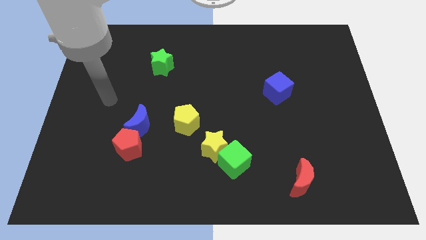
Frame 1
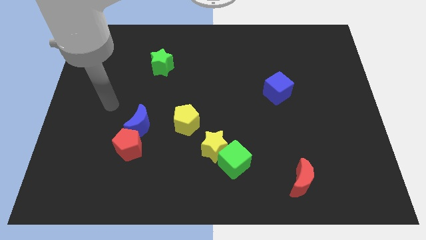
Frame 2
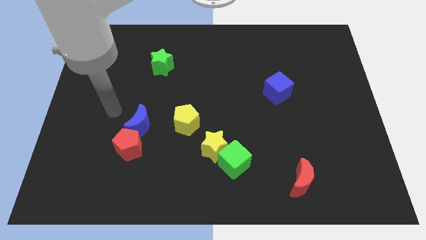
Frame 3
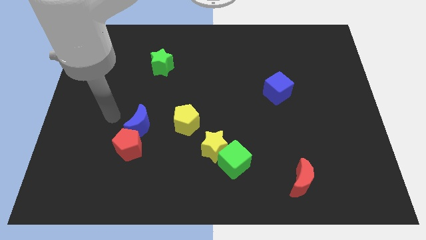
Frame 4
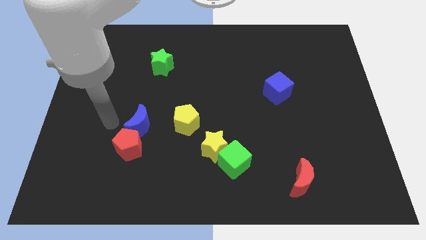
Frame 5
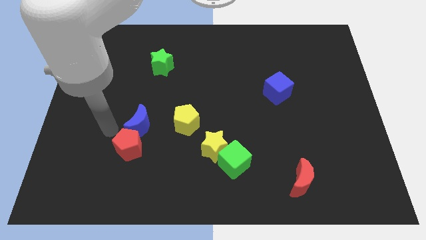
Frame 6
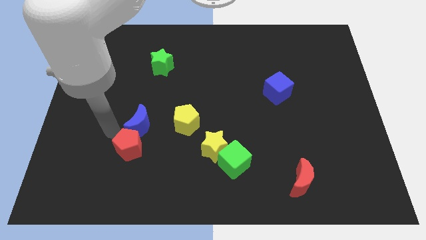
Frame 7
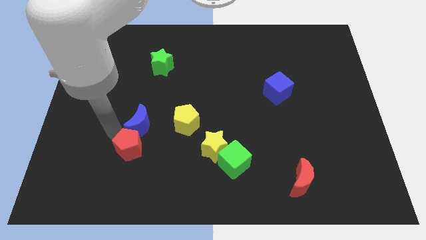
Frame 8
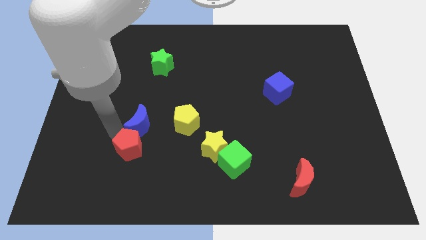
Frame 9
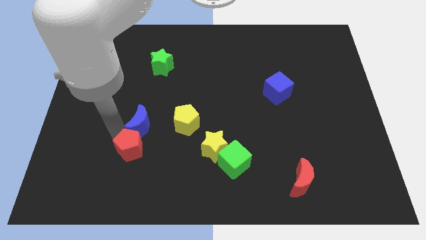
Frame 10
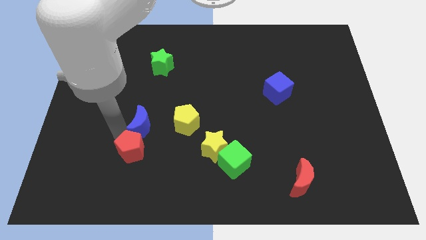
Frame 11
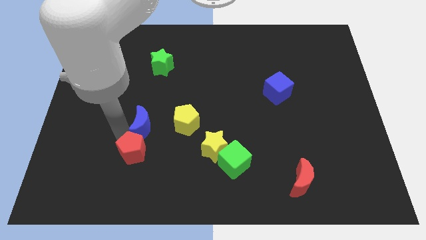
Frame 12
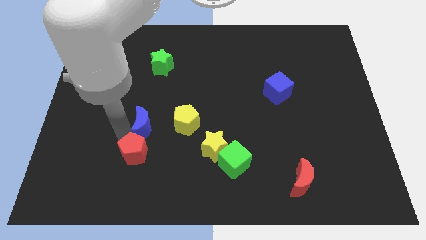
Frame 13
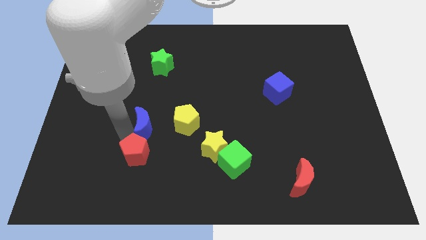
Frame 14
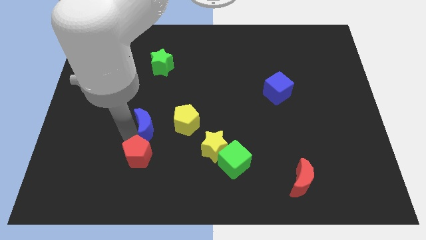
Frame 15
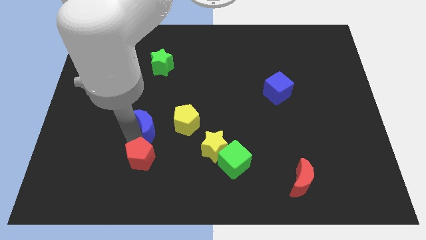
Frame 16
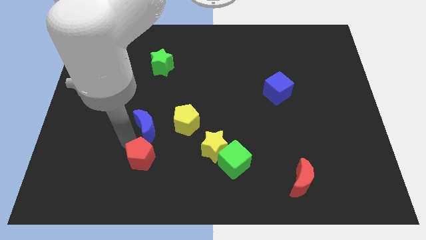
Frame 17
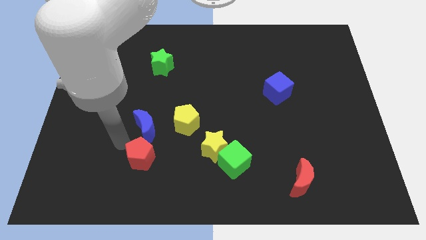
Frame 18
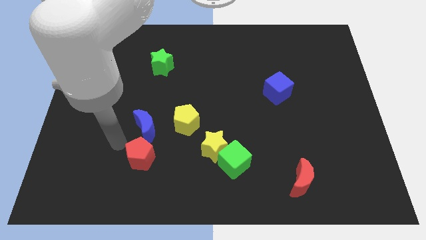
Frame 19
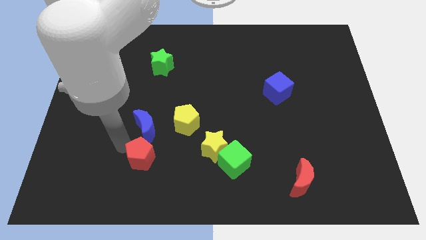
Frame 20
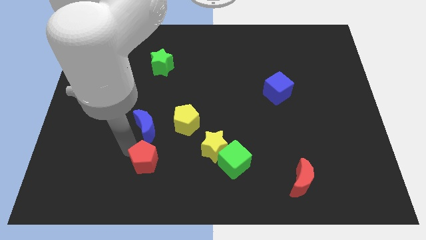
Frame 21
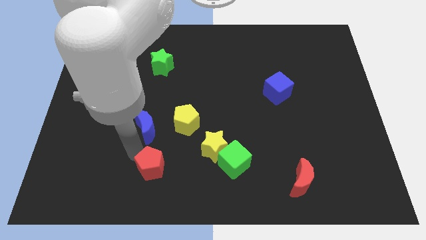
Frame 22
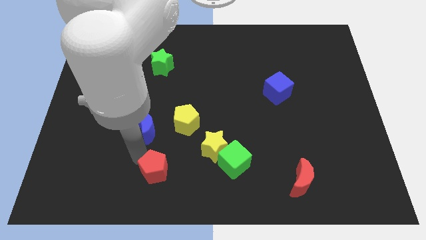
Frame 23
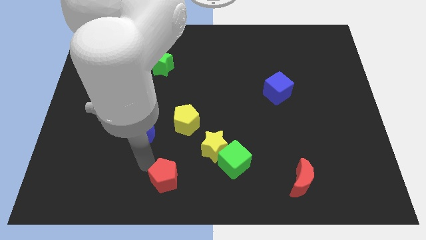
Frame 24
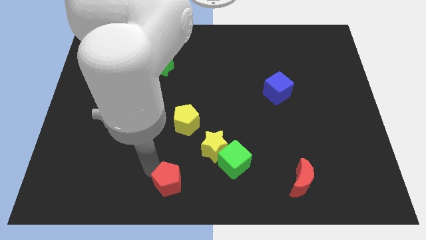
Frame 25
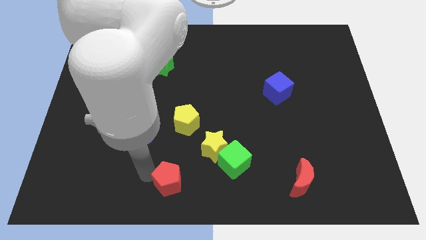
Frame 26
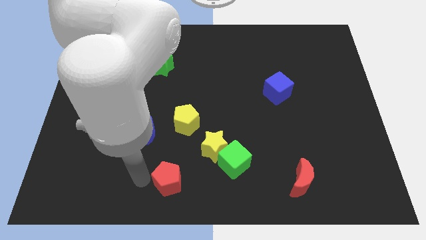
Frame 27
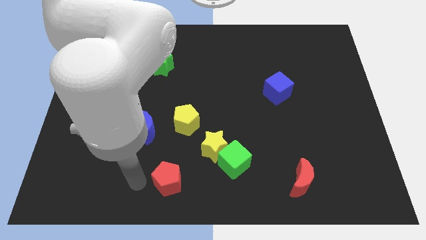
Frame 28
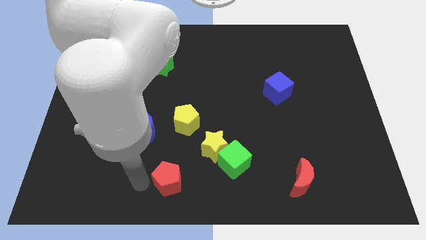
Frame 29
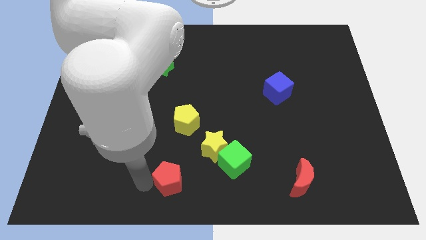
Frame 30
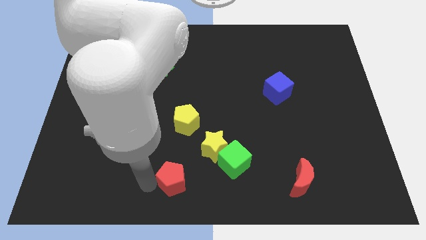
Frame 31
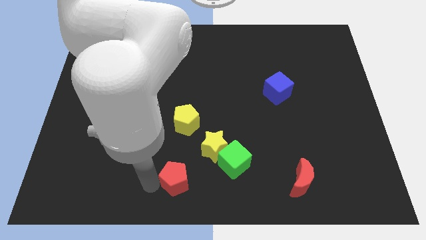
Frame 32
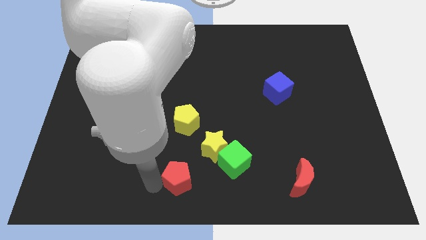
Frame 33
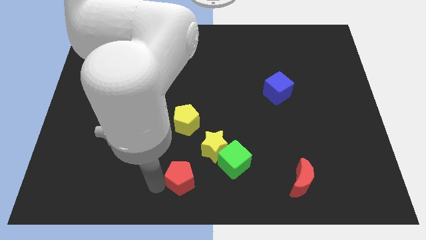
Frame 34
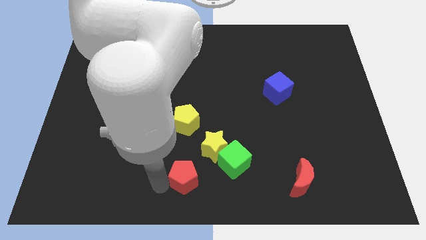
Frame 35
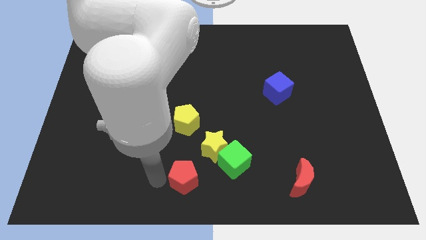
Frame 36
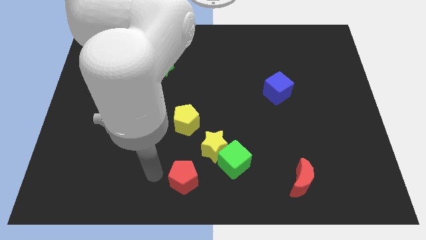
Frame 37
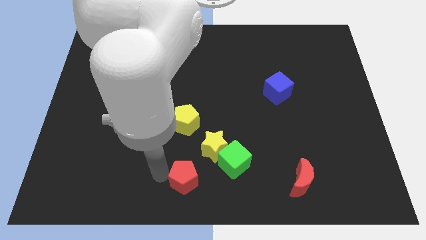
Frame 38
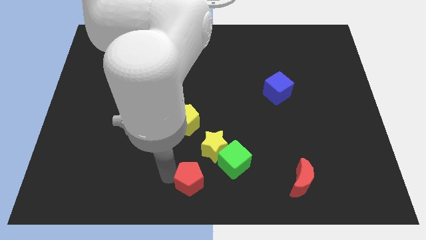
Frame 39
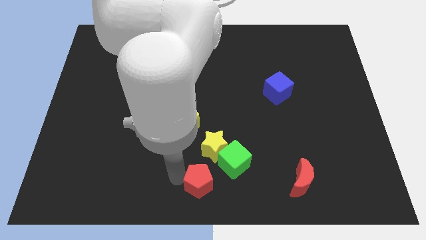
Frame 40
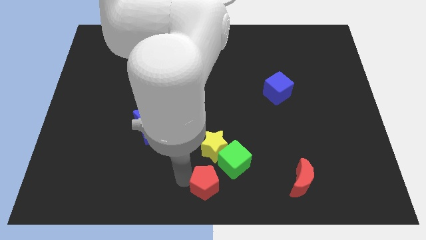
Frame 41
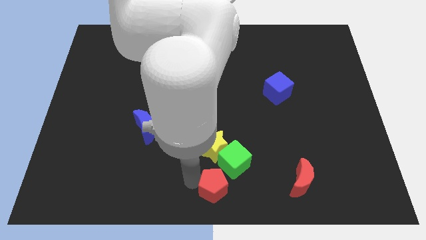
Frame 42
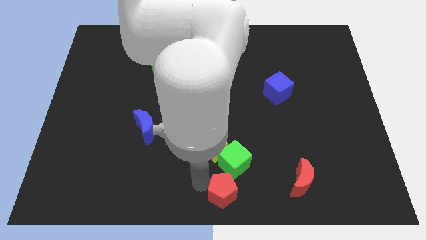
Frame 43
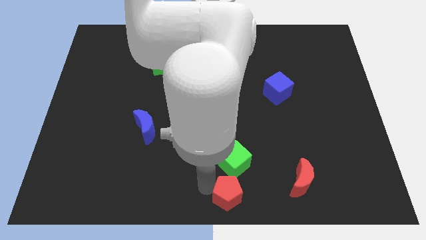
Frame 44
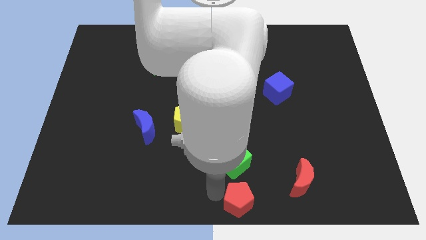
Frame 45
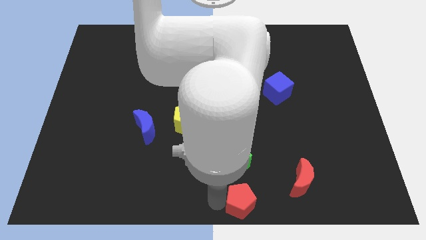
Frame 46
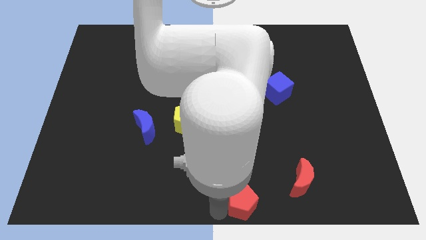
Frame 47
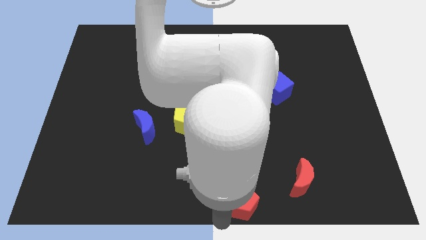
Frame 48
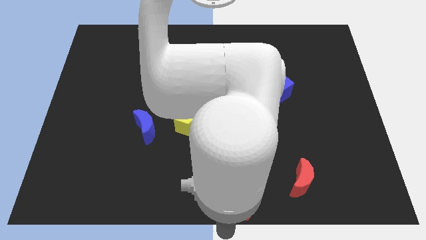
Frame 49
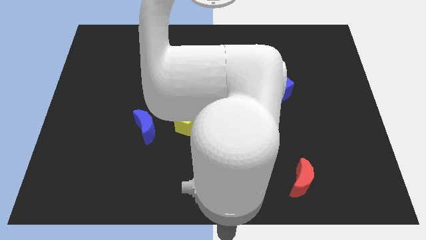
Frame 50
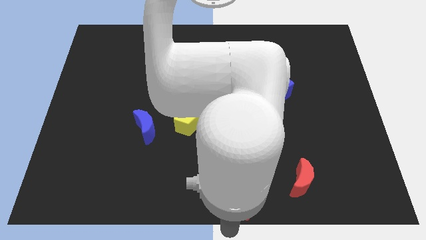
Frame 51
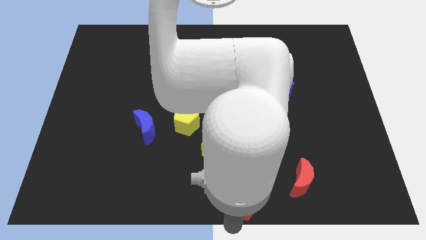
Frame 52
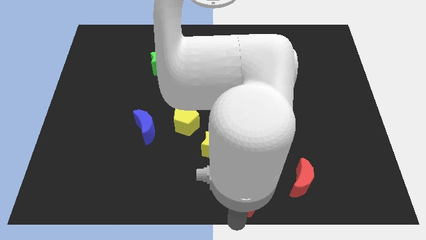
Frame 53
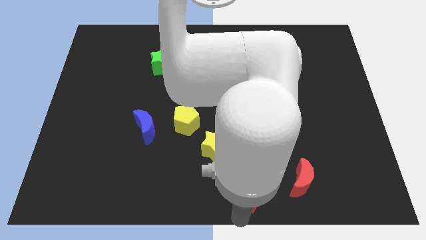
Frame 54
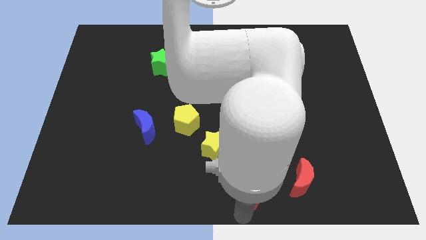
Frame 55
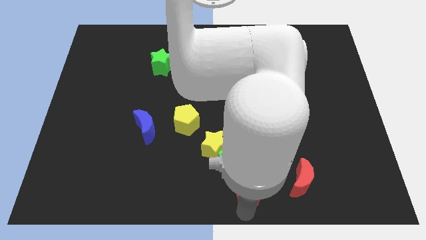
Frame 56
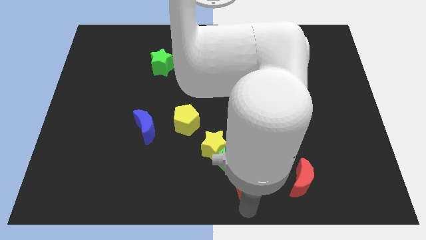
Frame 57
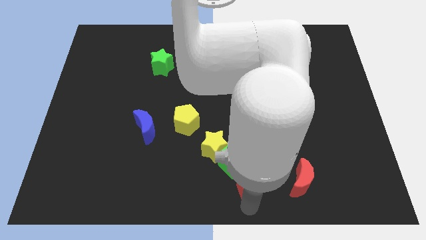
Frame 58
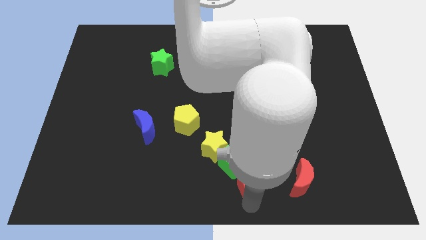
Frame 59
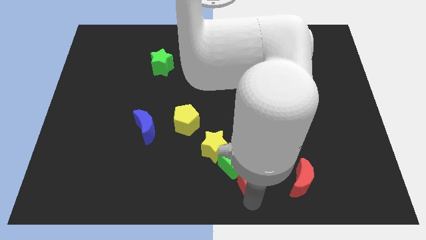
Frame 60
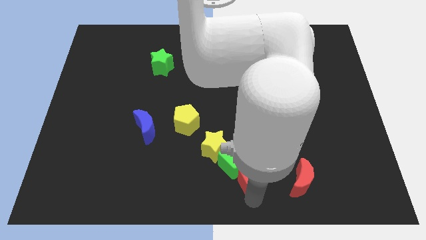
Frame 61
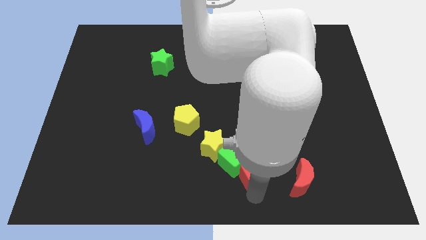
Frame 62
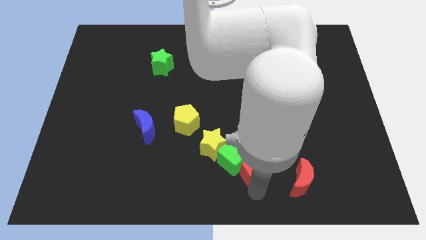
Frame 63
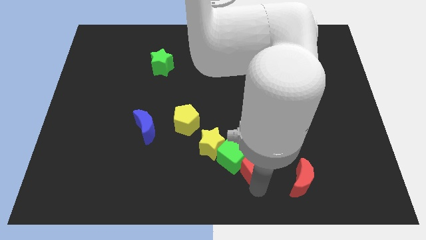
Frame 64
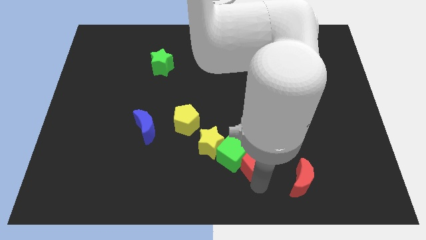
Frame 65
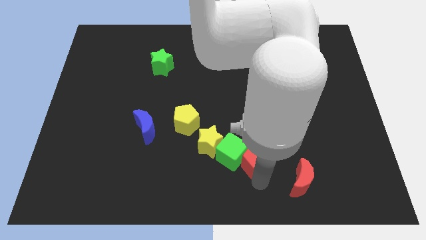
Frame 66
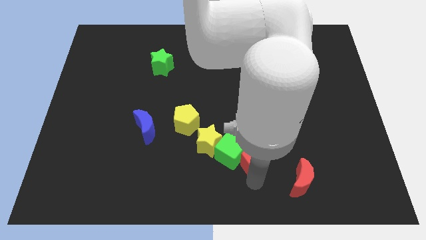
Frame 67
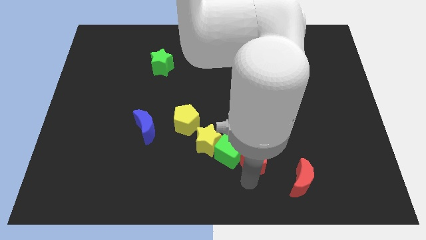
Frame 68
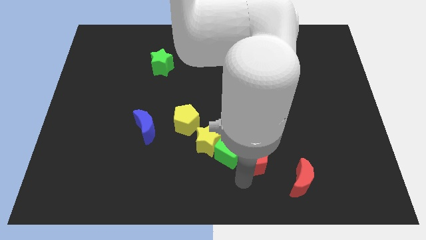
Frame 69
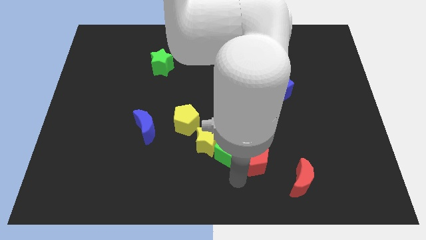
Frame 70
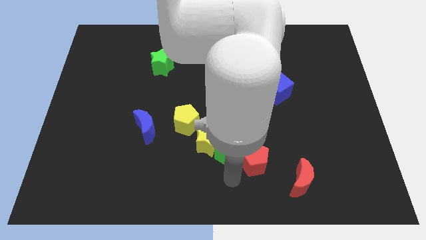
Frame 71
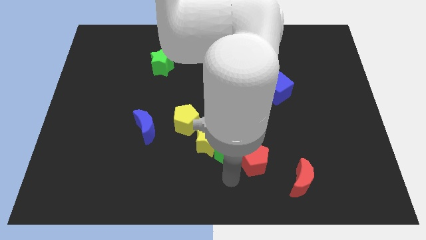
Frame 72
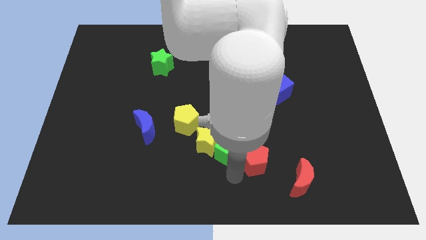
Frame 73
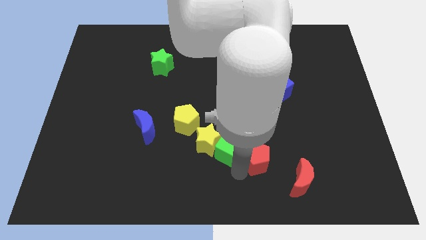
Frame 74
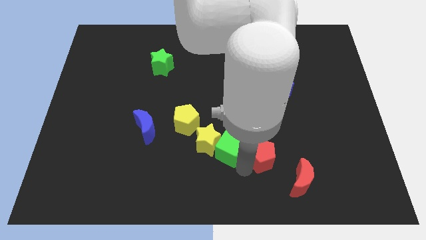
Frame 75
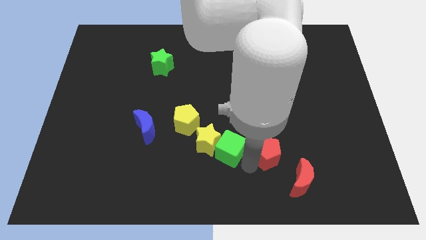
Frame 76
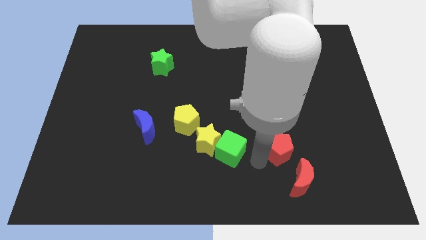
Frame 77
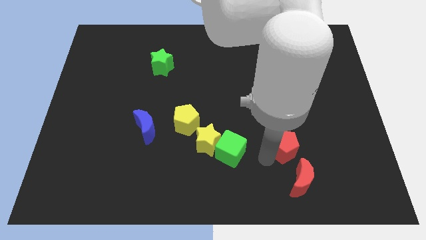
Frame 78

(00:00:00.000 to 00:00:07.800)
move the red pentagon below the blue cube
